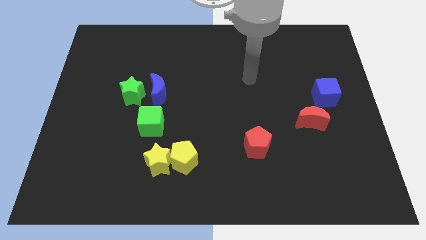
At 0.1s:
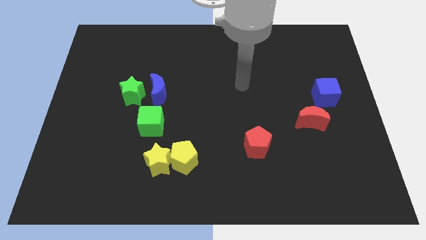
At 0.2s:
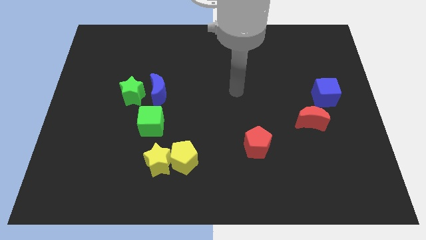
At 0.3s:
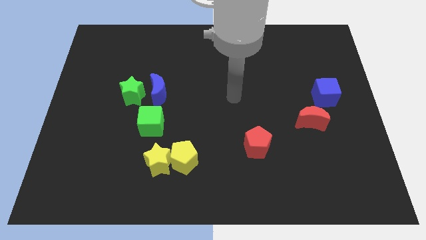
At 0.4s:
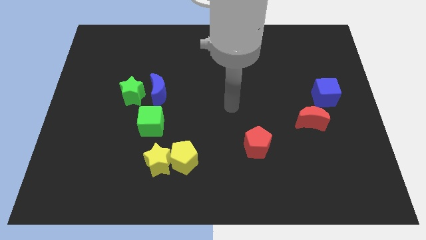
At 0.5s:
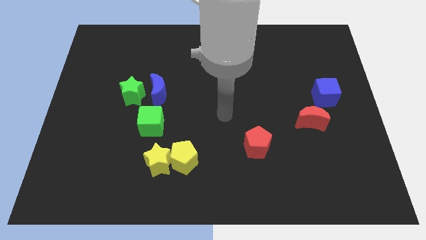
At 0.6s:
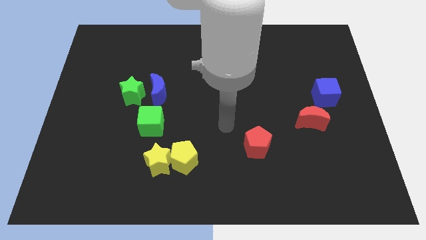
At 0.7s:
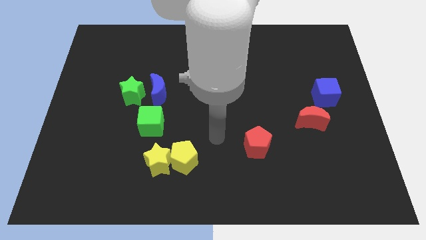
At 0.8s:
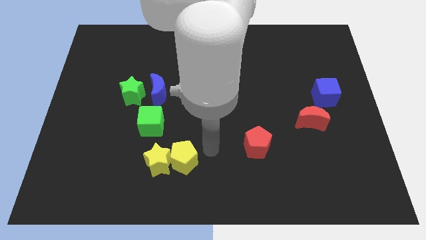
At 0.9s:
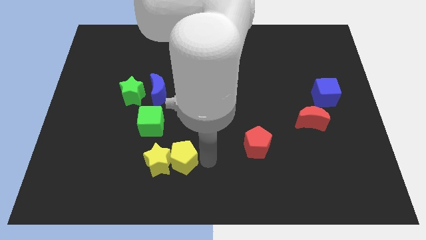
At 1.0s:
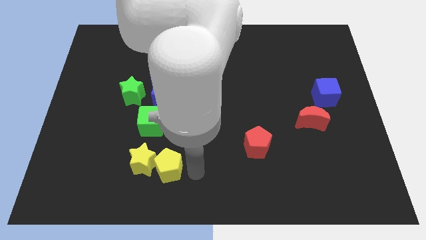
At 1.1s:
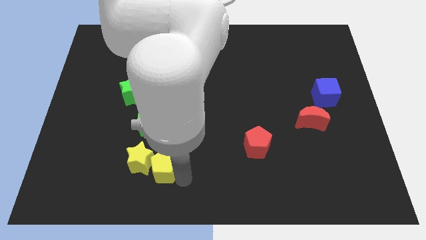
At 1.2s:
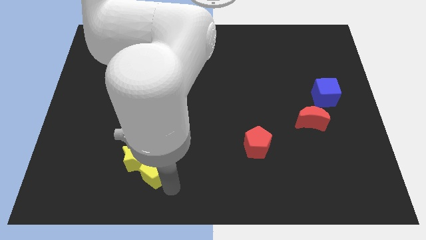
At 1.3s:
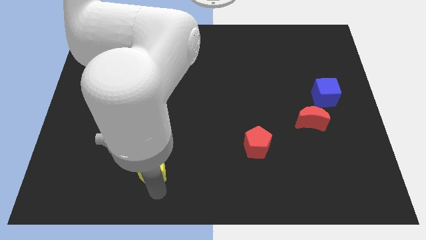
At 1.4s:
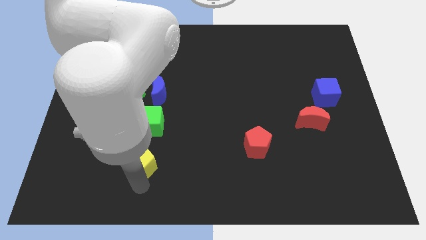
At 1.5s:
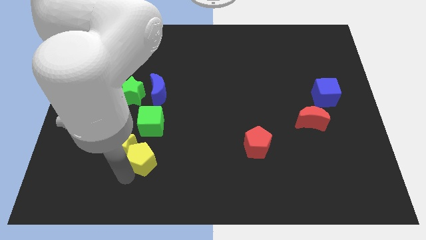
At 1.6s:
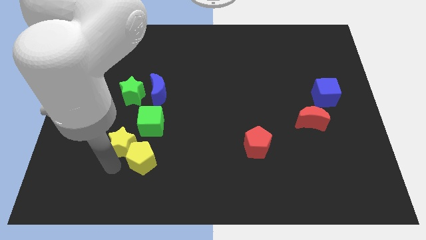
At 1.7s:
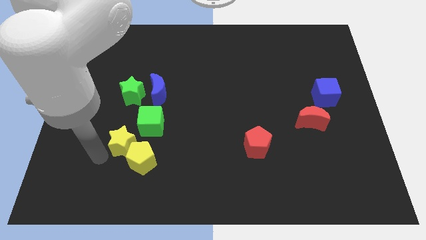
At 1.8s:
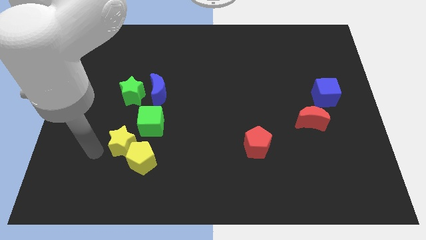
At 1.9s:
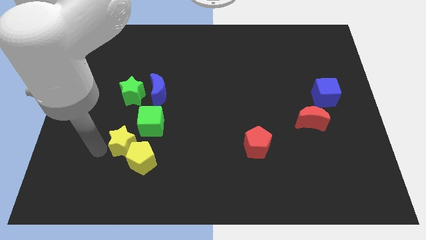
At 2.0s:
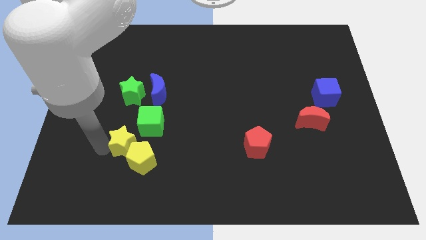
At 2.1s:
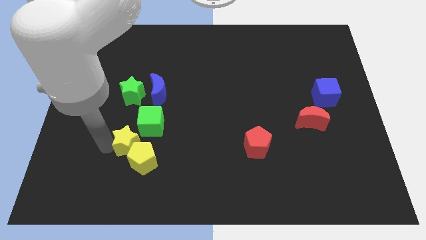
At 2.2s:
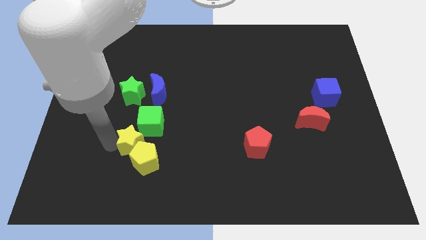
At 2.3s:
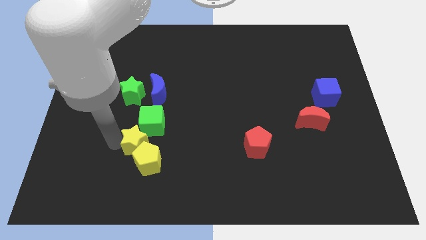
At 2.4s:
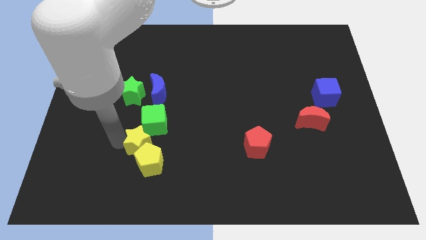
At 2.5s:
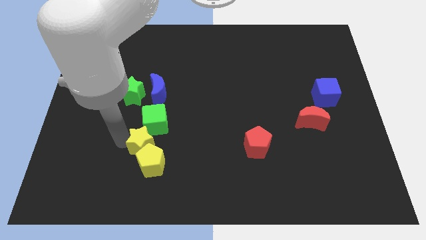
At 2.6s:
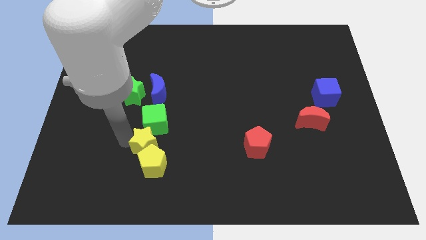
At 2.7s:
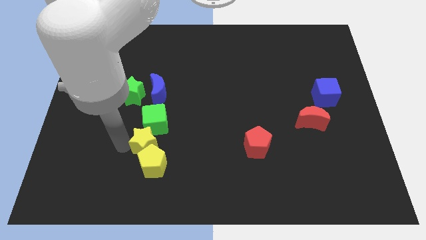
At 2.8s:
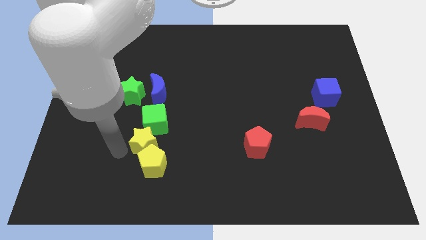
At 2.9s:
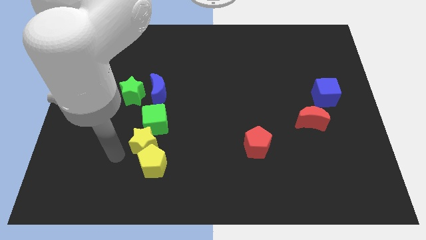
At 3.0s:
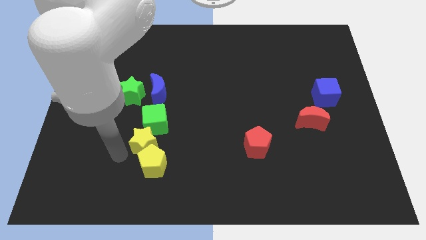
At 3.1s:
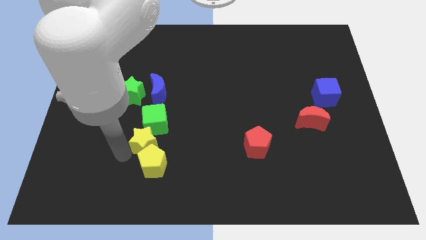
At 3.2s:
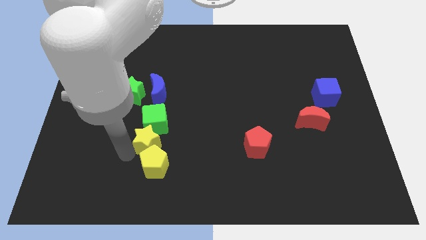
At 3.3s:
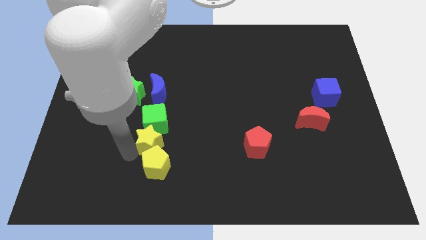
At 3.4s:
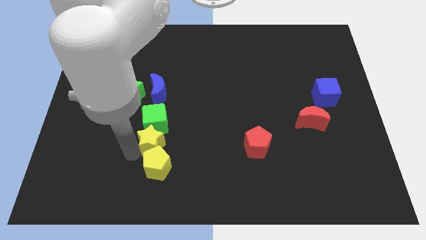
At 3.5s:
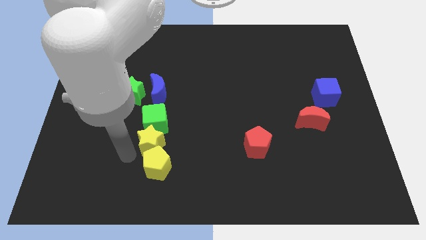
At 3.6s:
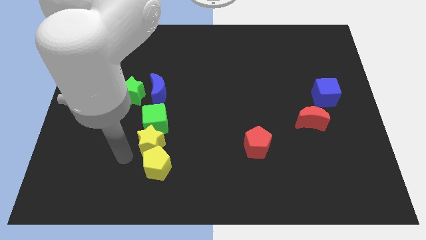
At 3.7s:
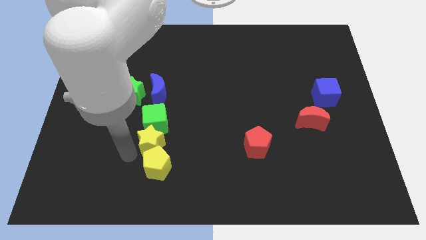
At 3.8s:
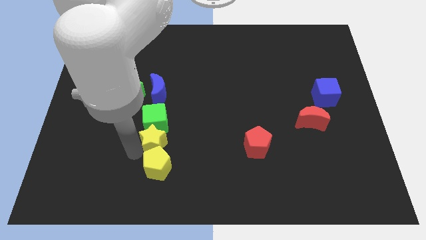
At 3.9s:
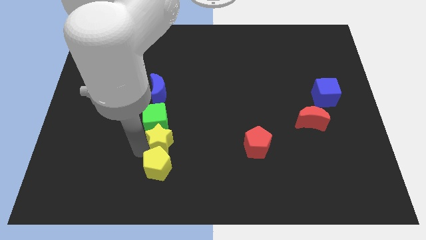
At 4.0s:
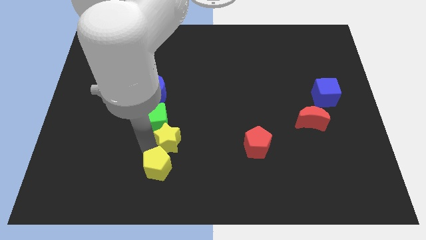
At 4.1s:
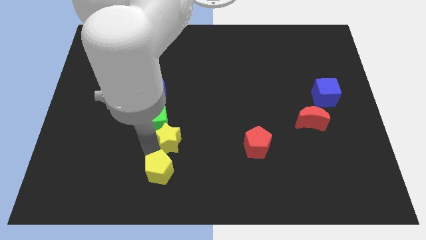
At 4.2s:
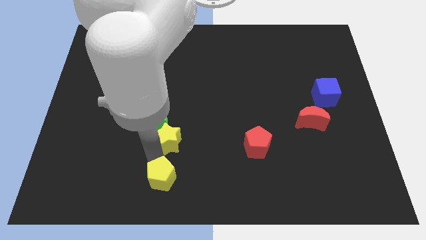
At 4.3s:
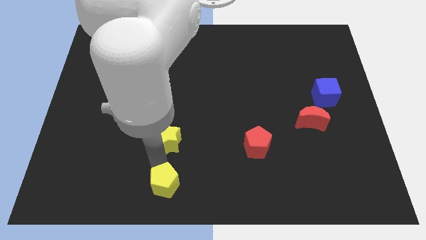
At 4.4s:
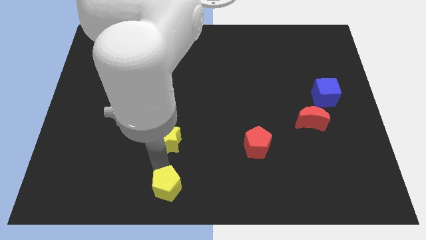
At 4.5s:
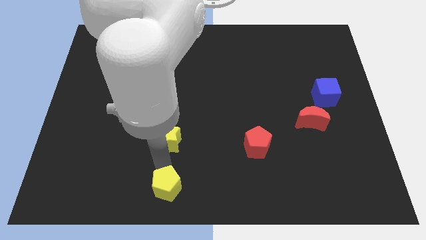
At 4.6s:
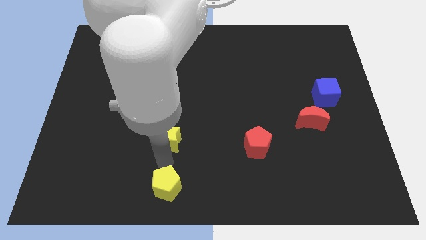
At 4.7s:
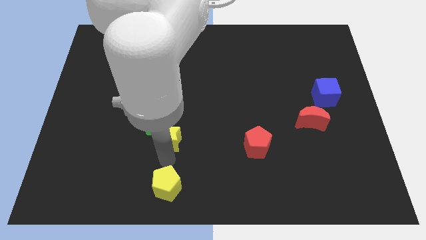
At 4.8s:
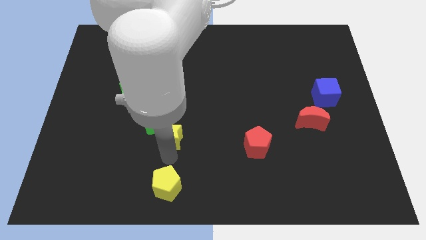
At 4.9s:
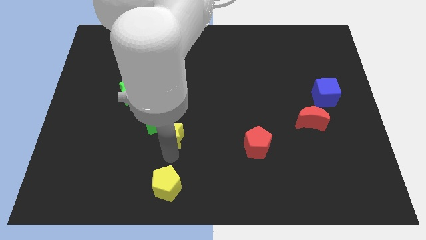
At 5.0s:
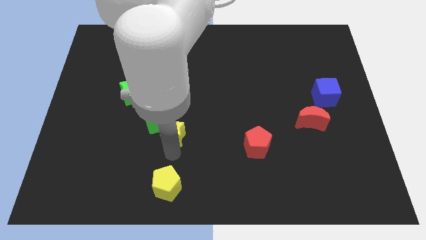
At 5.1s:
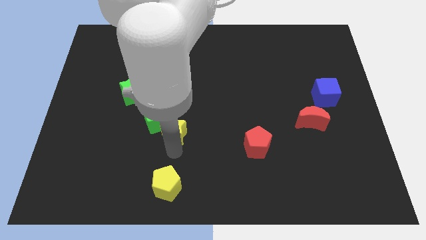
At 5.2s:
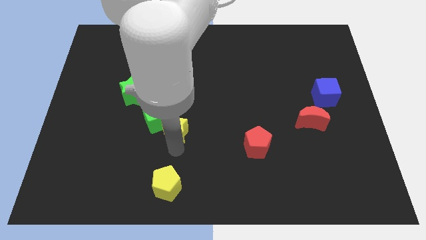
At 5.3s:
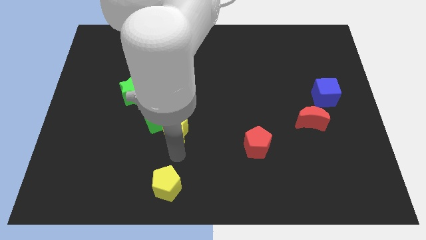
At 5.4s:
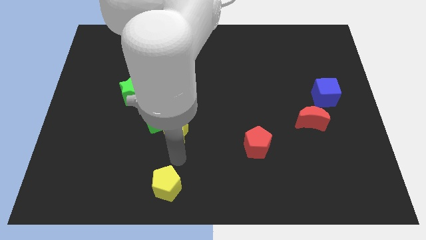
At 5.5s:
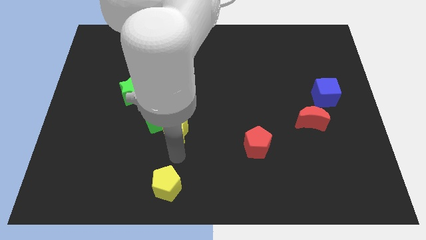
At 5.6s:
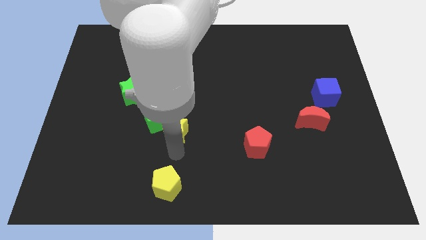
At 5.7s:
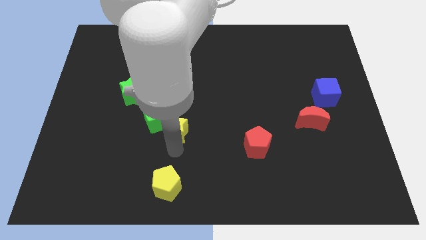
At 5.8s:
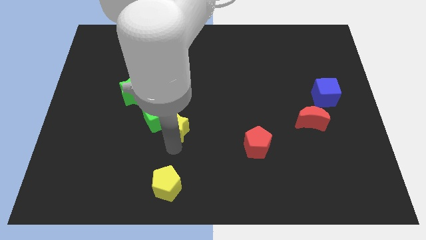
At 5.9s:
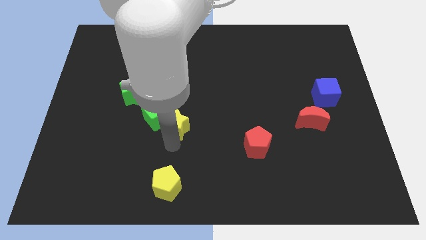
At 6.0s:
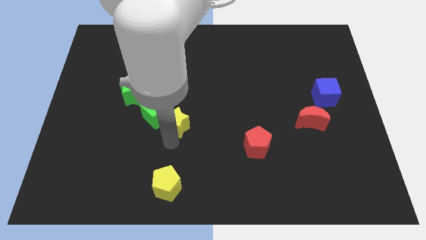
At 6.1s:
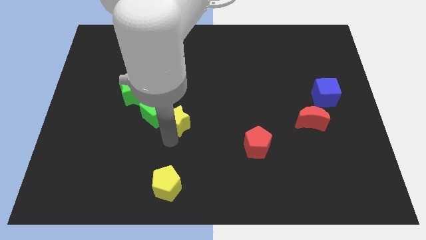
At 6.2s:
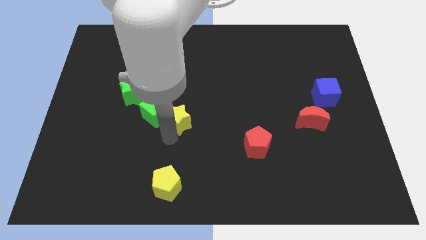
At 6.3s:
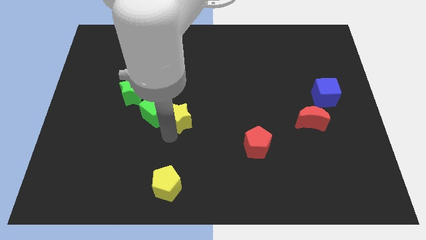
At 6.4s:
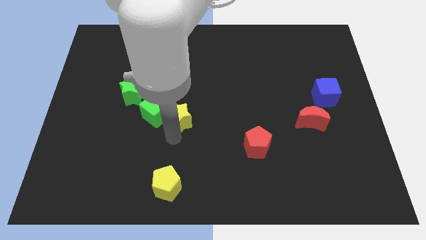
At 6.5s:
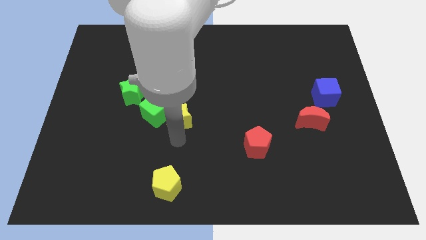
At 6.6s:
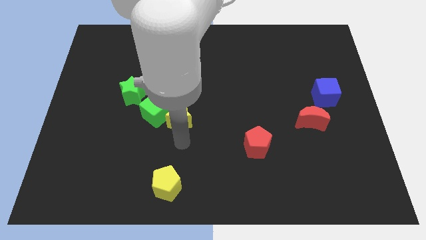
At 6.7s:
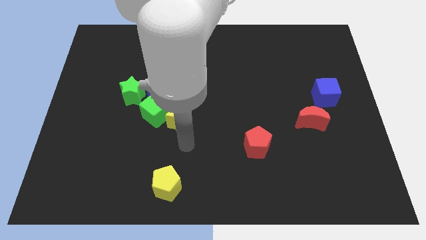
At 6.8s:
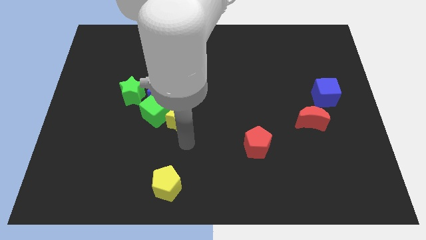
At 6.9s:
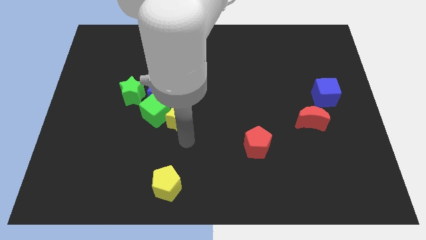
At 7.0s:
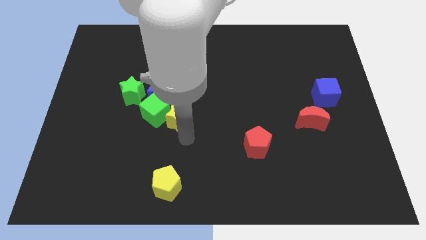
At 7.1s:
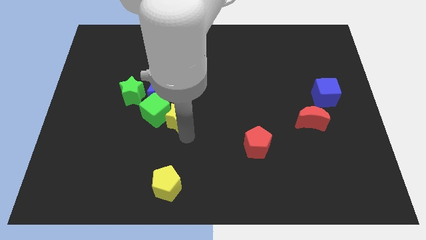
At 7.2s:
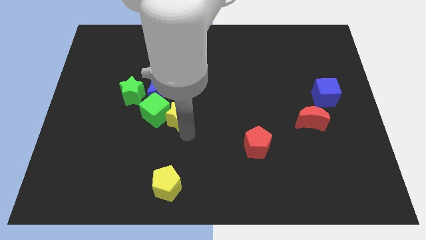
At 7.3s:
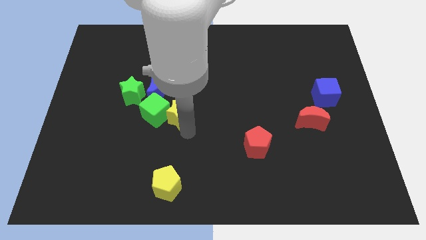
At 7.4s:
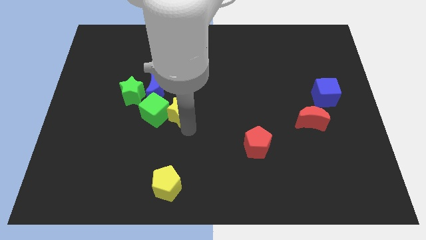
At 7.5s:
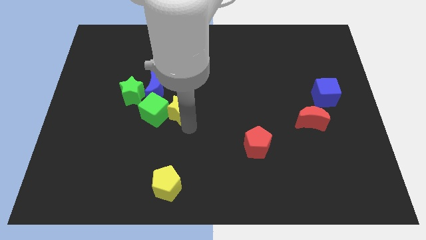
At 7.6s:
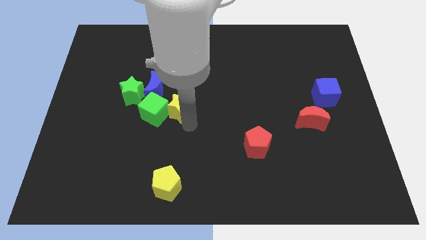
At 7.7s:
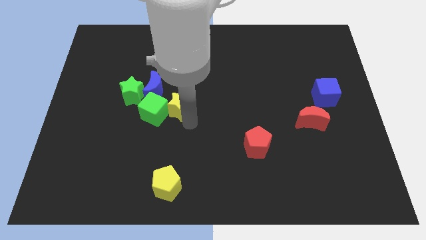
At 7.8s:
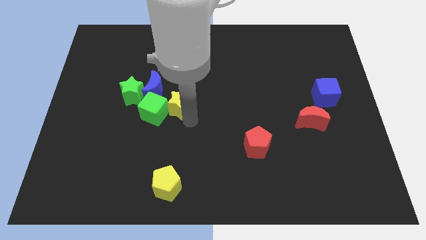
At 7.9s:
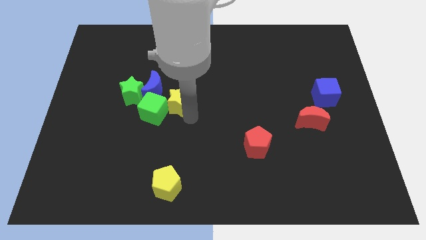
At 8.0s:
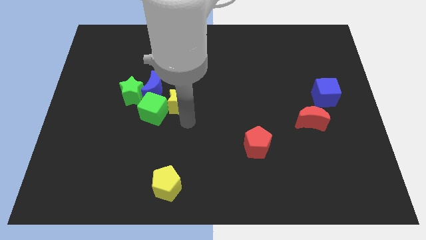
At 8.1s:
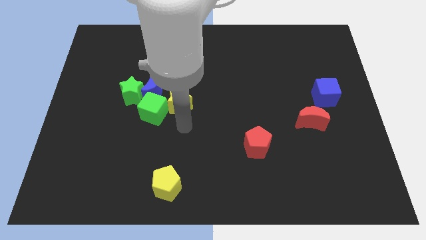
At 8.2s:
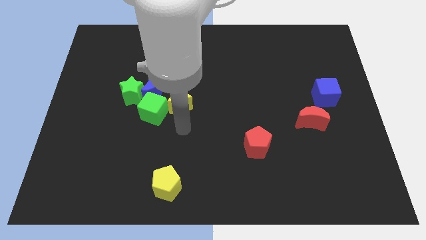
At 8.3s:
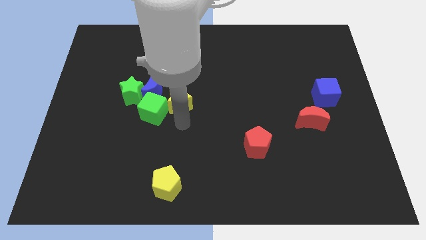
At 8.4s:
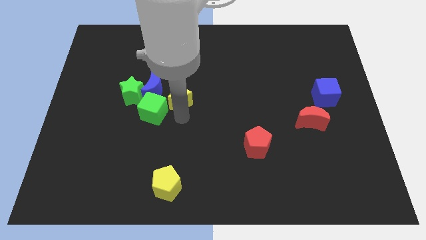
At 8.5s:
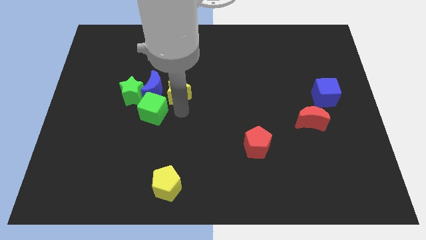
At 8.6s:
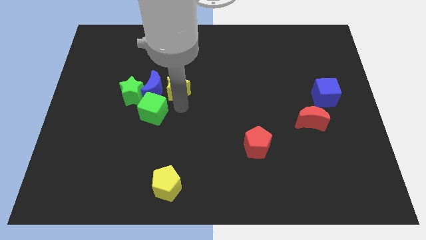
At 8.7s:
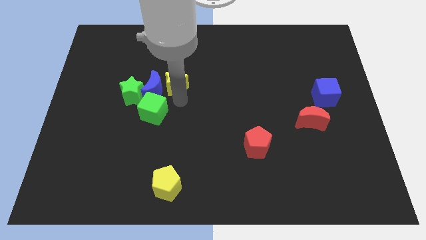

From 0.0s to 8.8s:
move the yellow star up
